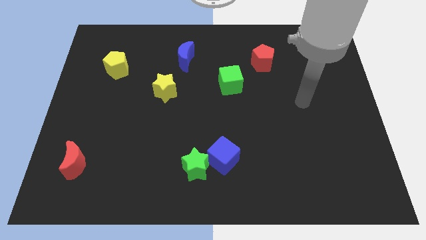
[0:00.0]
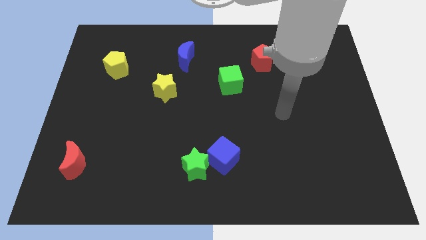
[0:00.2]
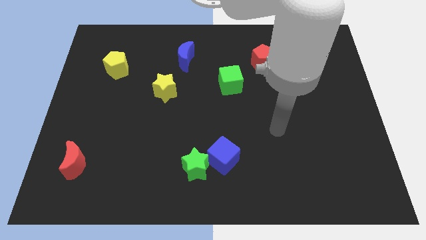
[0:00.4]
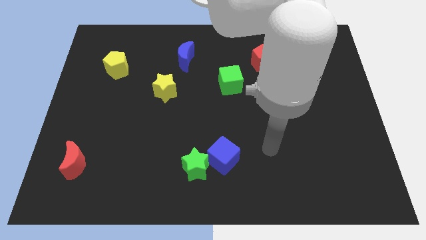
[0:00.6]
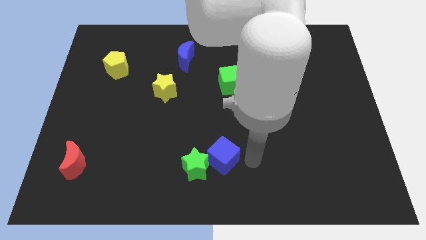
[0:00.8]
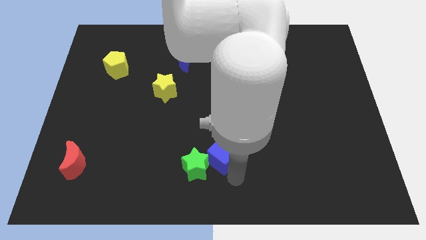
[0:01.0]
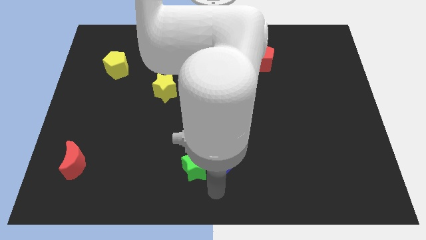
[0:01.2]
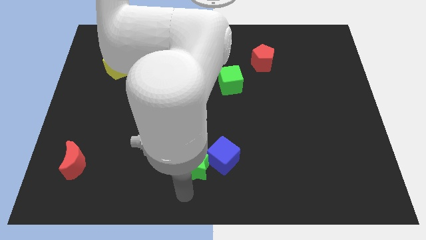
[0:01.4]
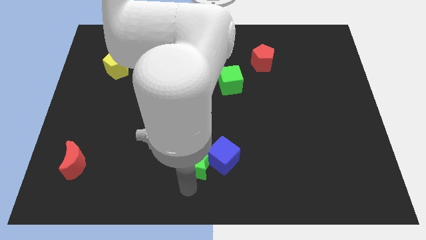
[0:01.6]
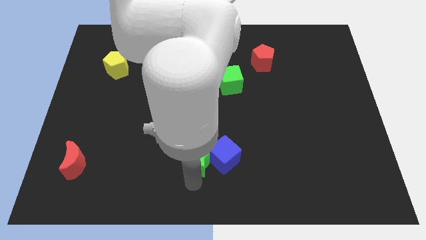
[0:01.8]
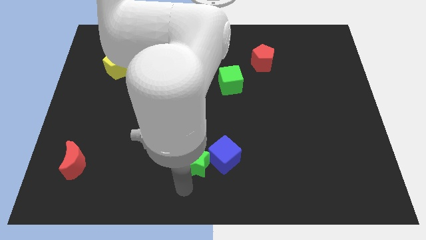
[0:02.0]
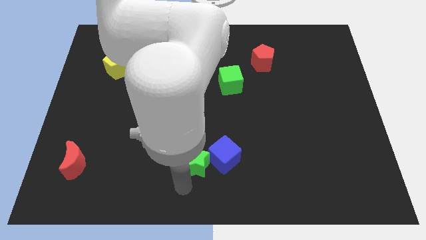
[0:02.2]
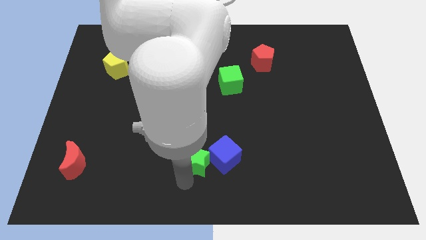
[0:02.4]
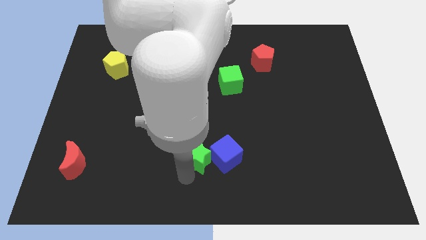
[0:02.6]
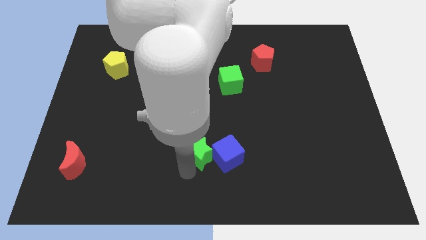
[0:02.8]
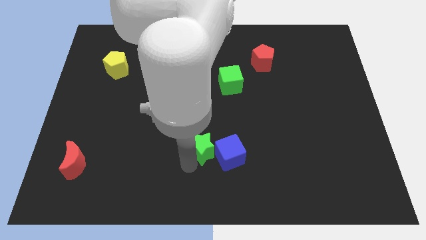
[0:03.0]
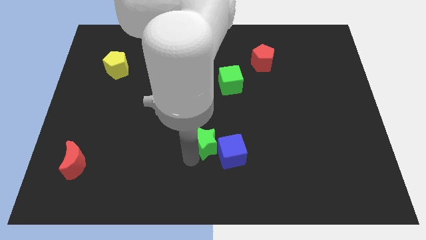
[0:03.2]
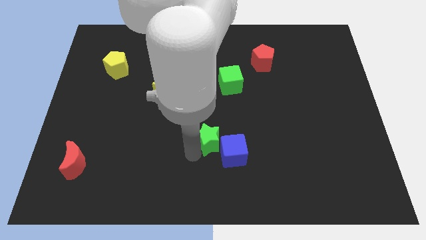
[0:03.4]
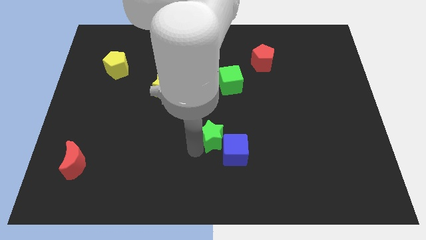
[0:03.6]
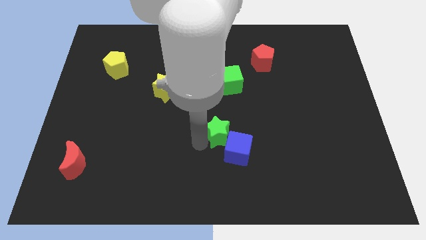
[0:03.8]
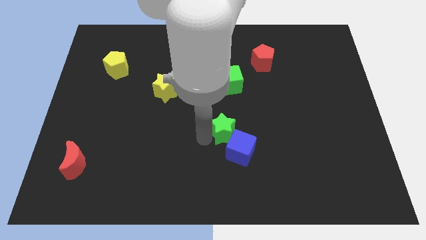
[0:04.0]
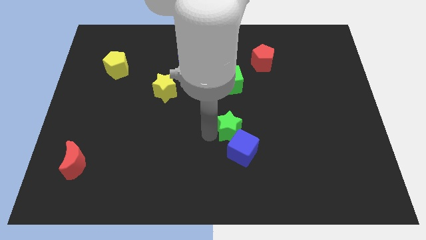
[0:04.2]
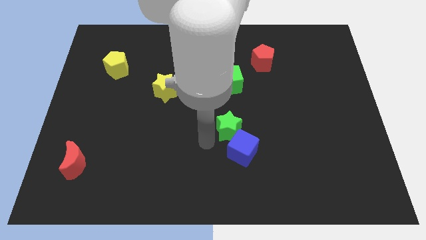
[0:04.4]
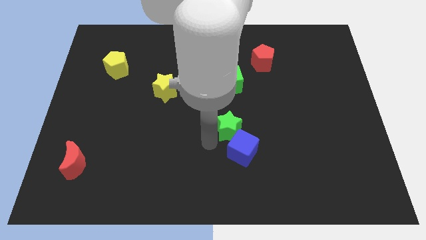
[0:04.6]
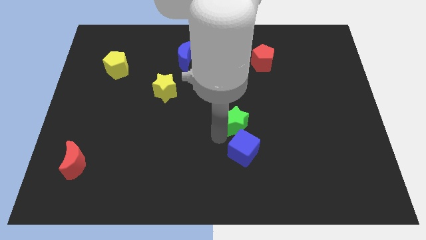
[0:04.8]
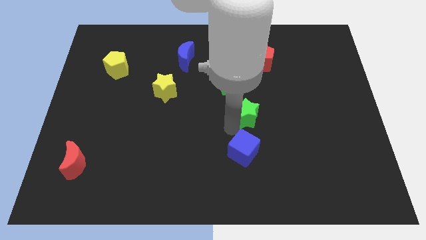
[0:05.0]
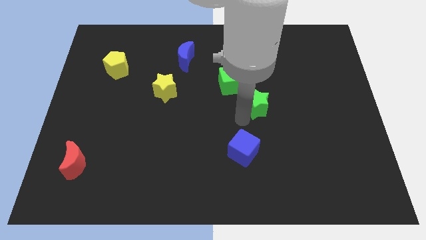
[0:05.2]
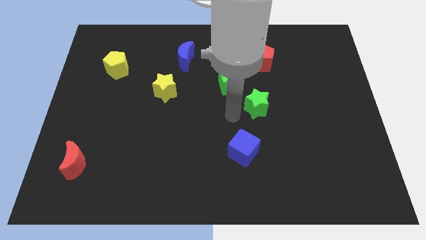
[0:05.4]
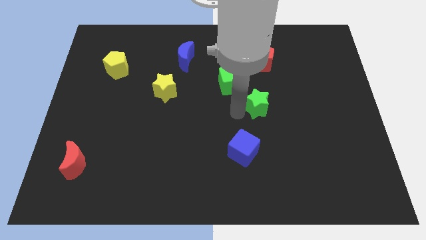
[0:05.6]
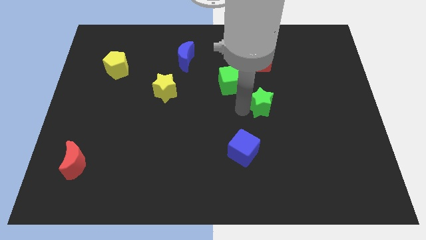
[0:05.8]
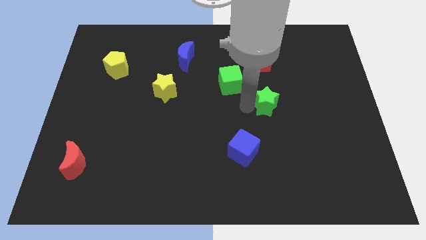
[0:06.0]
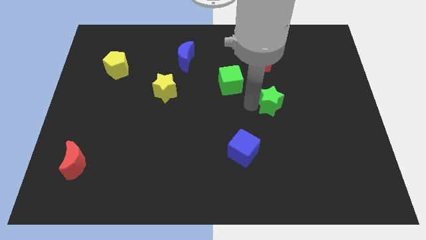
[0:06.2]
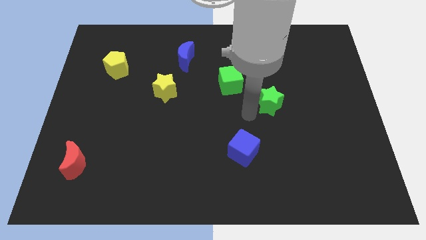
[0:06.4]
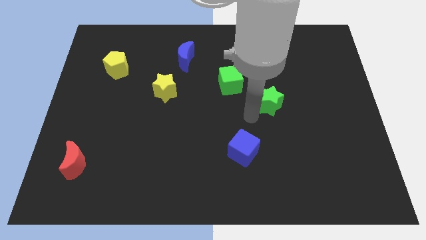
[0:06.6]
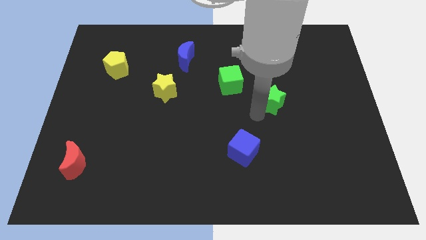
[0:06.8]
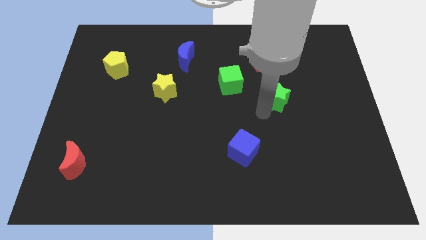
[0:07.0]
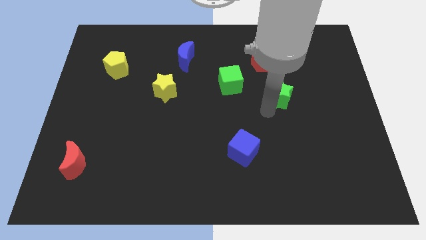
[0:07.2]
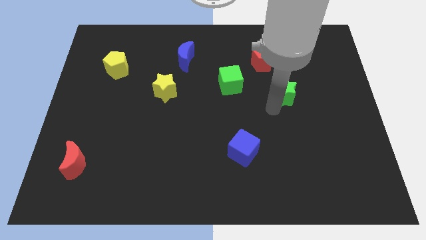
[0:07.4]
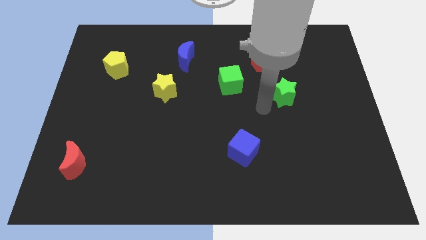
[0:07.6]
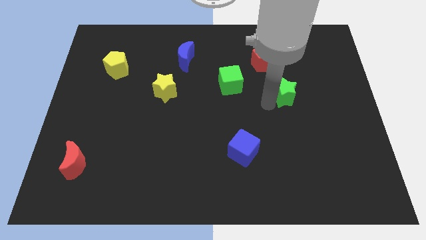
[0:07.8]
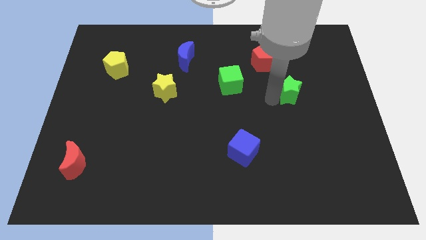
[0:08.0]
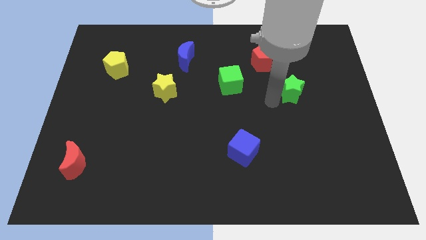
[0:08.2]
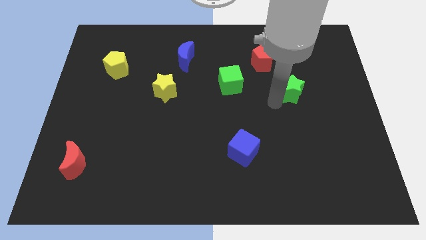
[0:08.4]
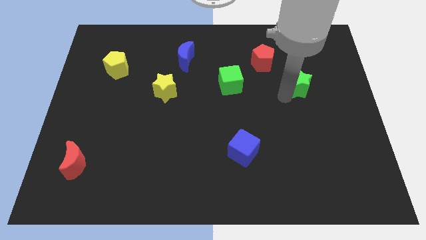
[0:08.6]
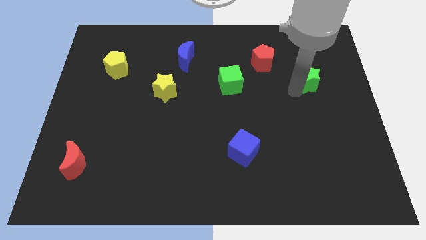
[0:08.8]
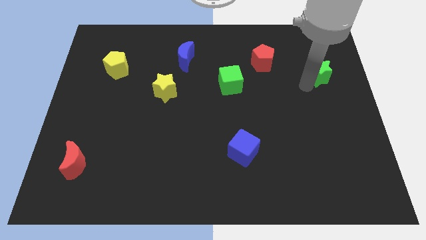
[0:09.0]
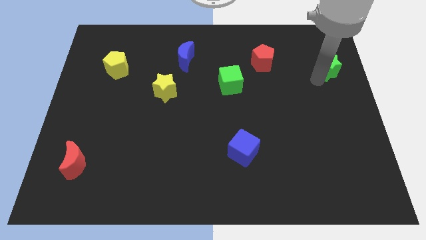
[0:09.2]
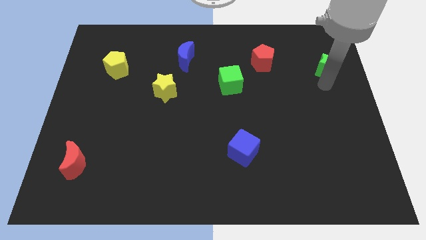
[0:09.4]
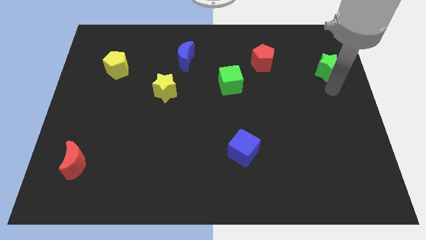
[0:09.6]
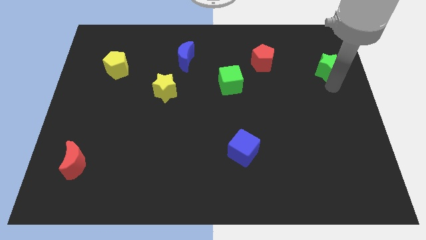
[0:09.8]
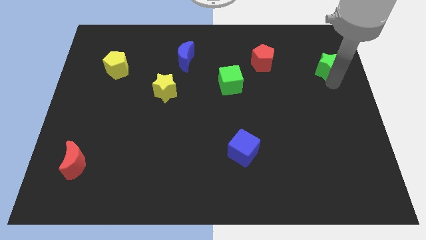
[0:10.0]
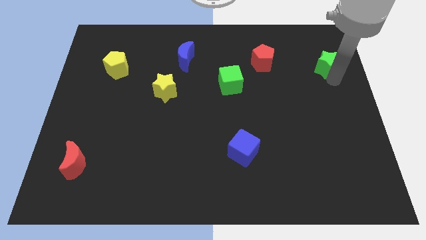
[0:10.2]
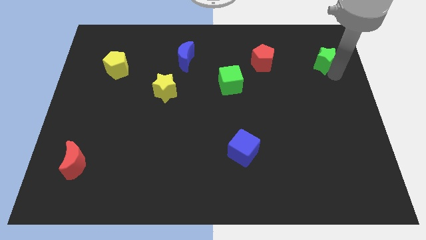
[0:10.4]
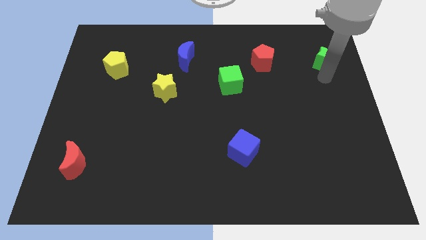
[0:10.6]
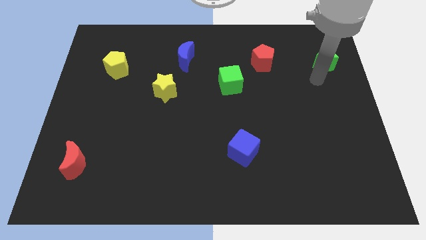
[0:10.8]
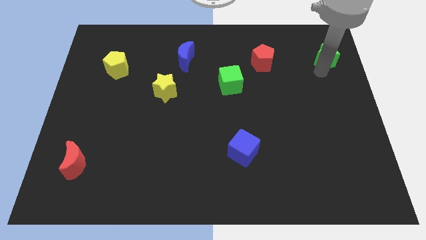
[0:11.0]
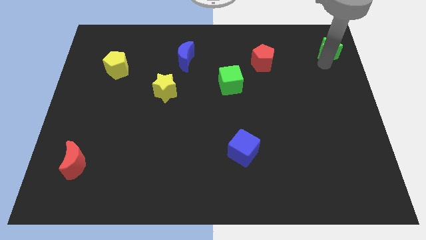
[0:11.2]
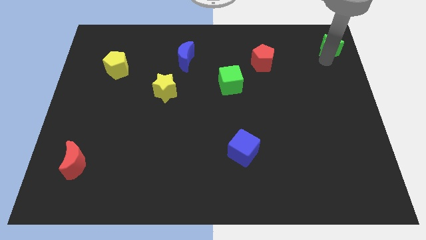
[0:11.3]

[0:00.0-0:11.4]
move the green star to the top right

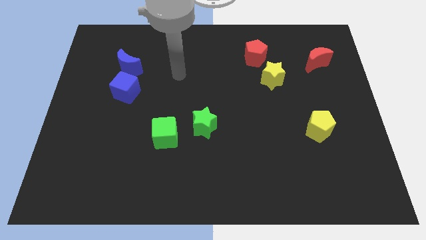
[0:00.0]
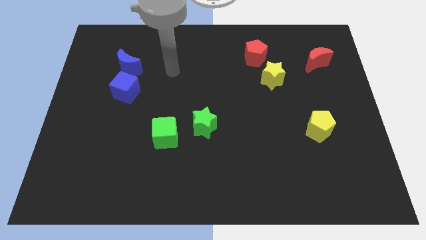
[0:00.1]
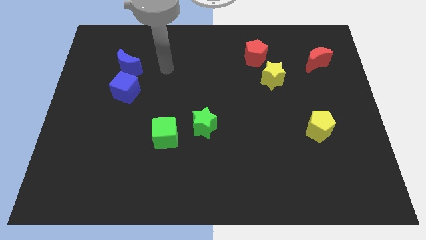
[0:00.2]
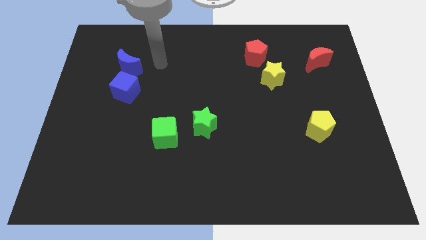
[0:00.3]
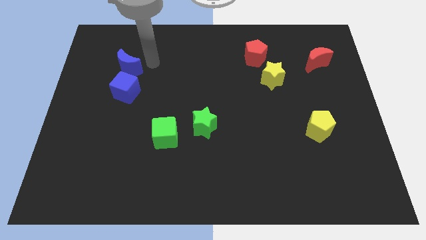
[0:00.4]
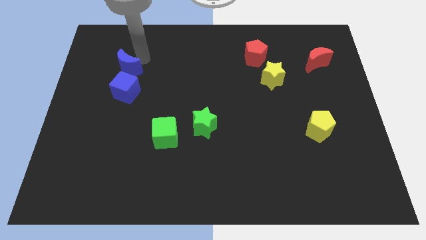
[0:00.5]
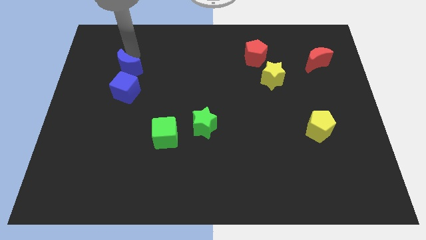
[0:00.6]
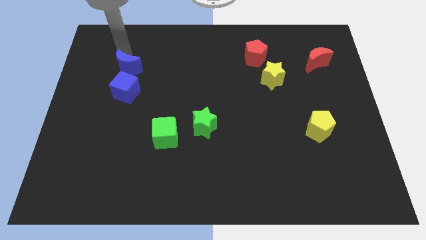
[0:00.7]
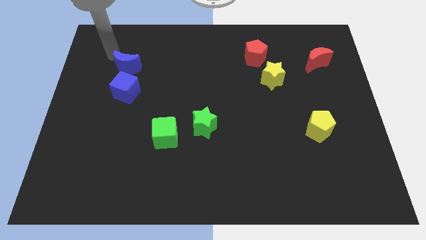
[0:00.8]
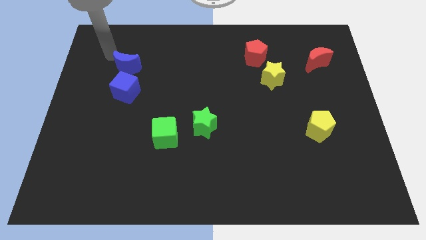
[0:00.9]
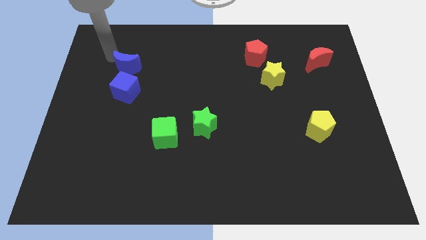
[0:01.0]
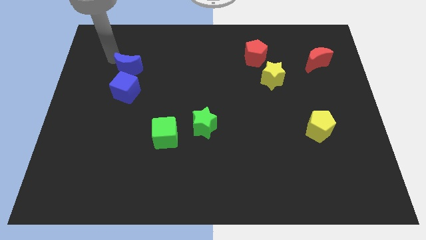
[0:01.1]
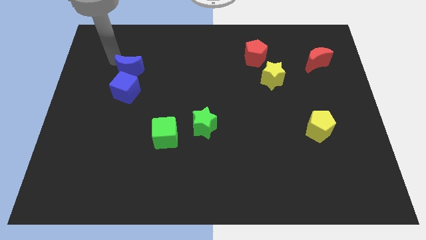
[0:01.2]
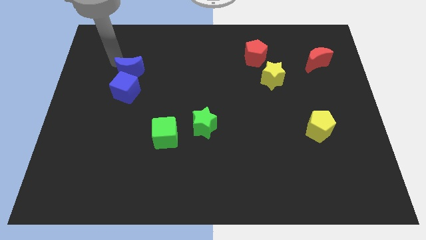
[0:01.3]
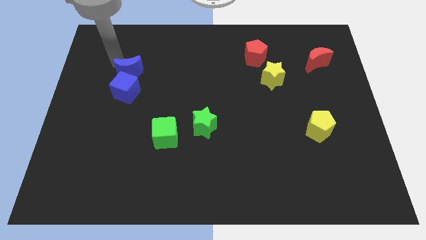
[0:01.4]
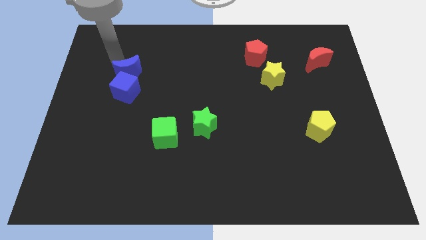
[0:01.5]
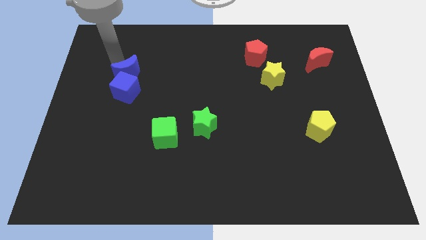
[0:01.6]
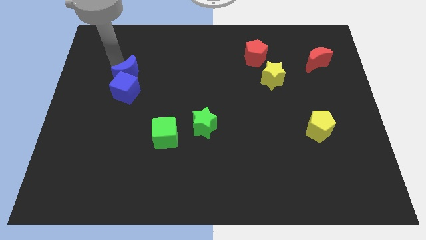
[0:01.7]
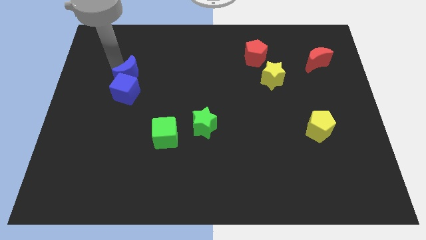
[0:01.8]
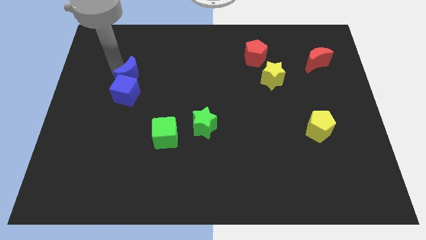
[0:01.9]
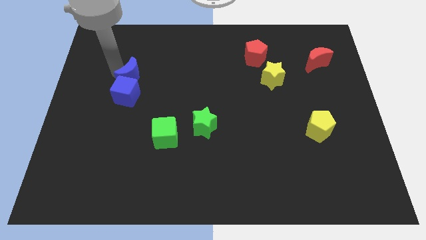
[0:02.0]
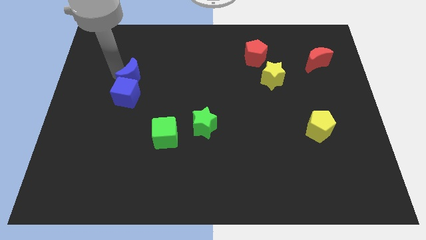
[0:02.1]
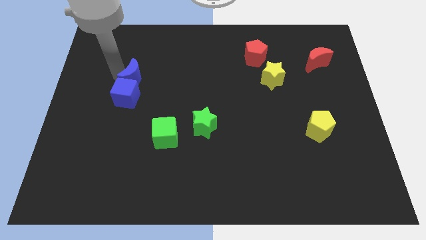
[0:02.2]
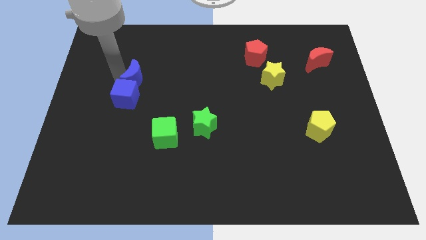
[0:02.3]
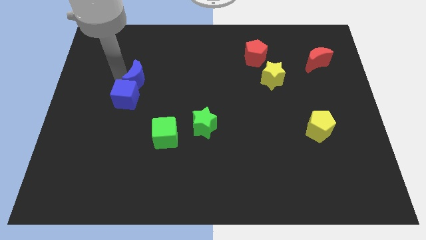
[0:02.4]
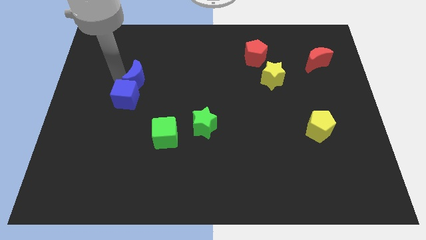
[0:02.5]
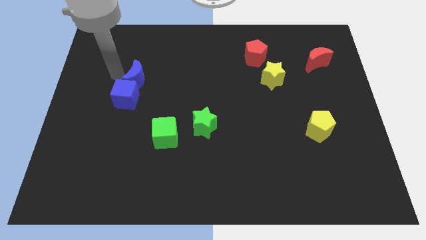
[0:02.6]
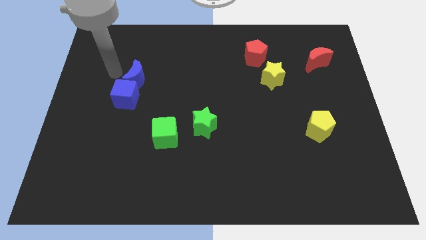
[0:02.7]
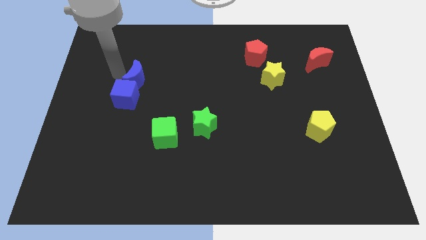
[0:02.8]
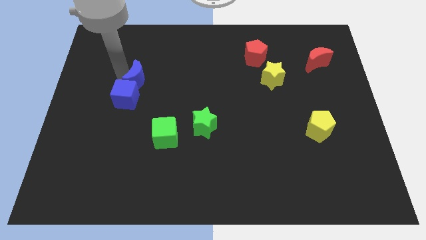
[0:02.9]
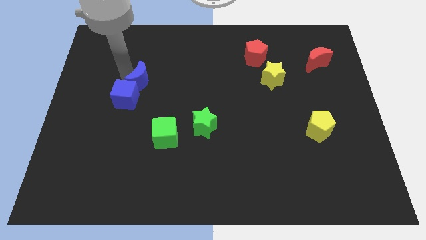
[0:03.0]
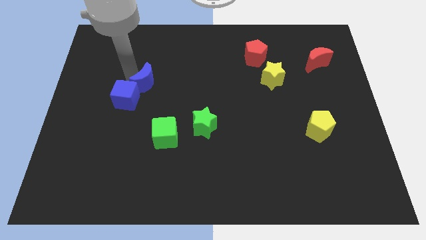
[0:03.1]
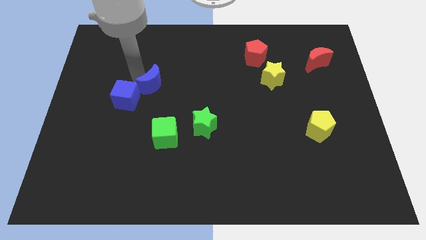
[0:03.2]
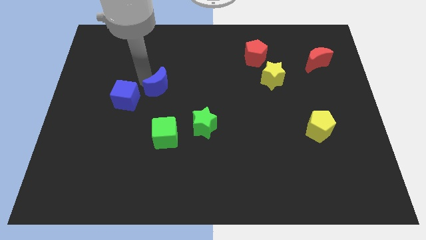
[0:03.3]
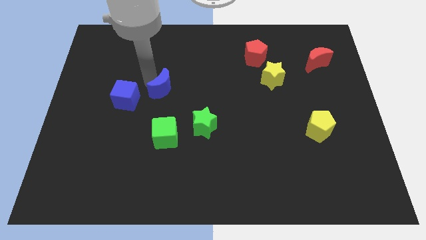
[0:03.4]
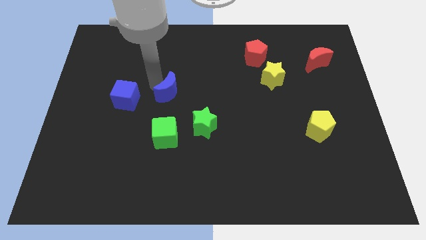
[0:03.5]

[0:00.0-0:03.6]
put the blue moon to the center of the board
